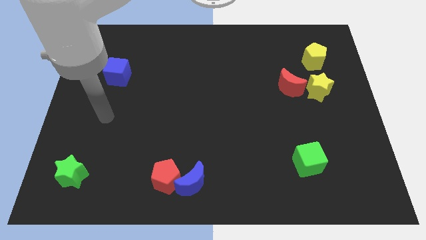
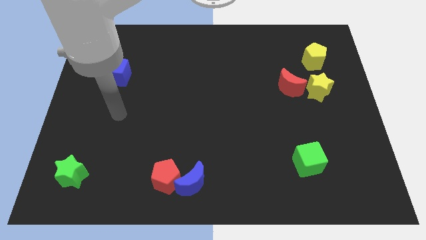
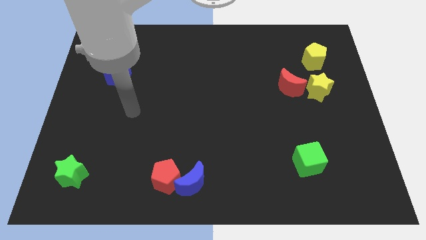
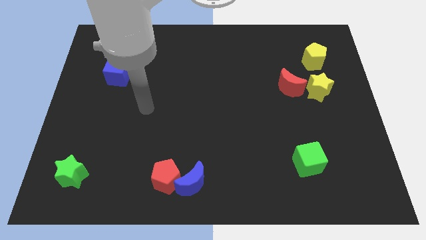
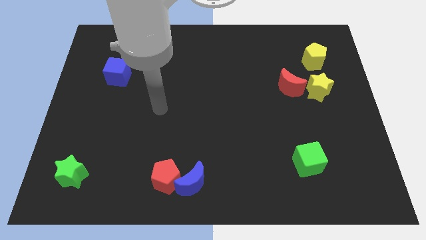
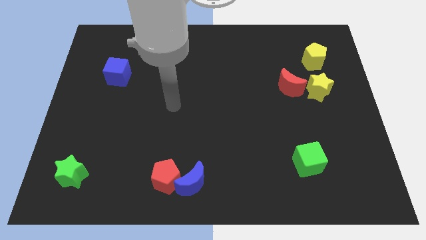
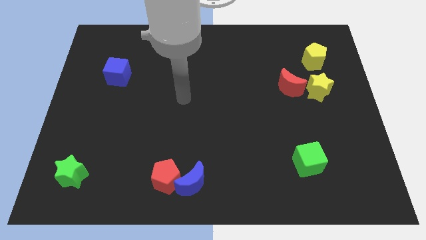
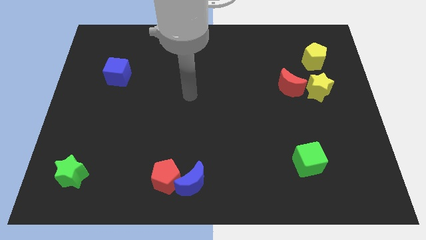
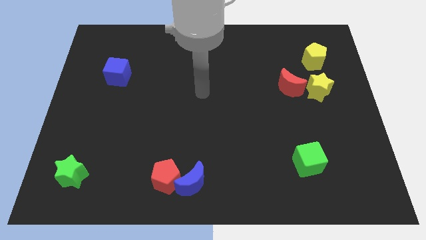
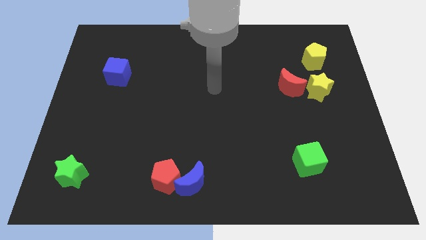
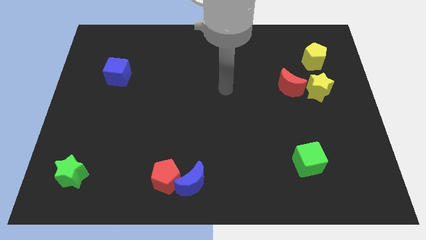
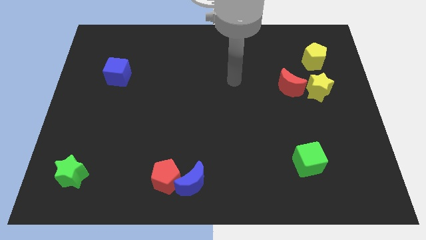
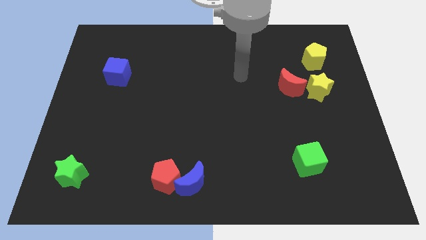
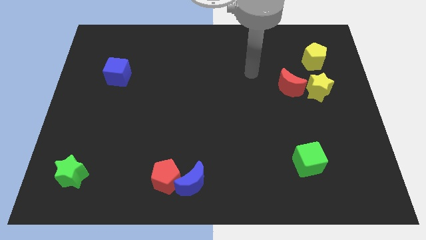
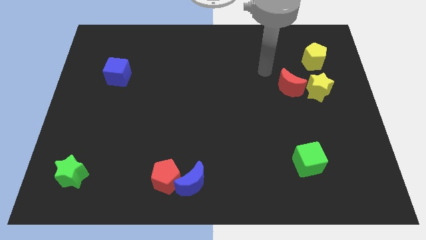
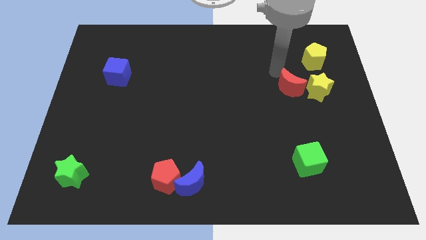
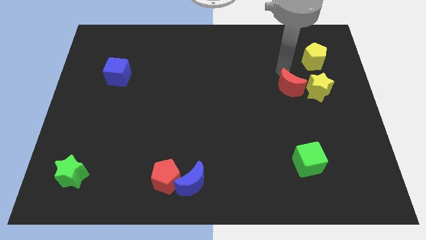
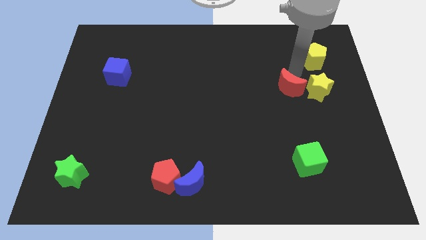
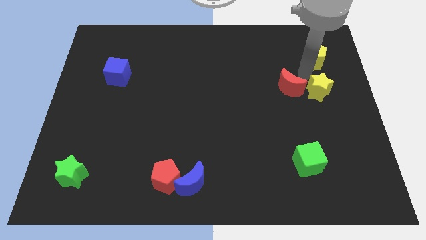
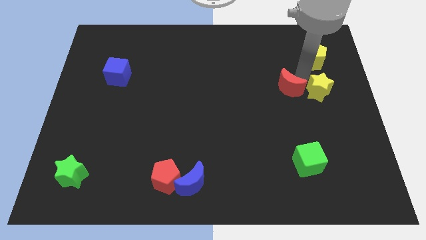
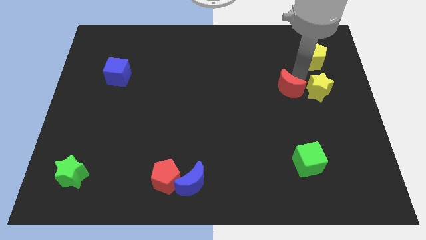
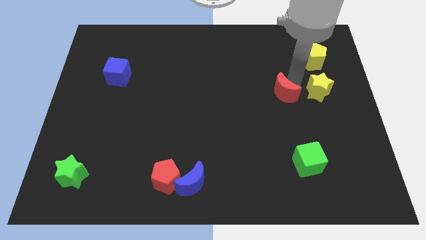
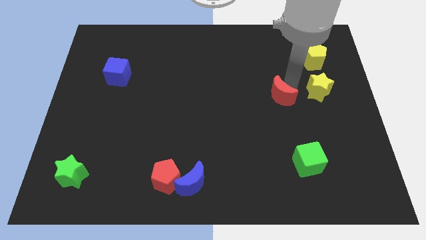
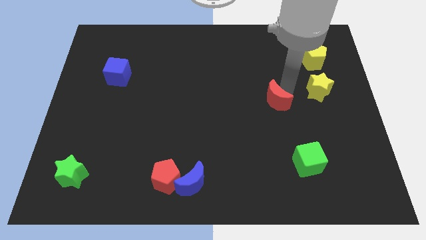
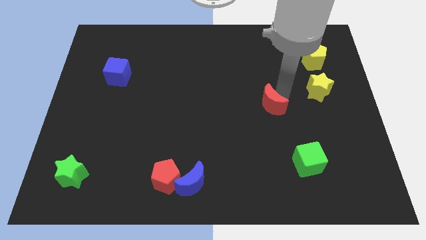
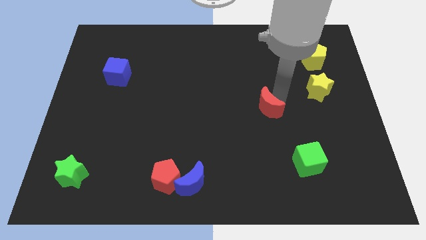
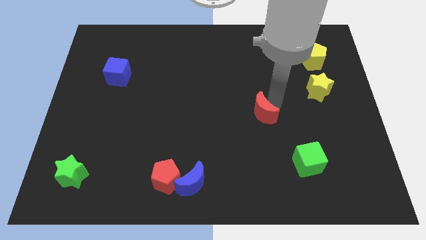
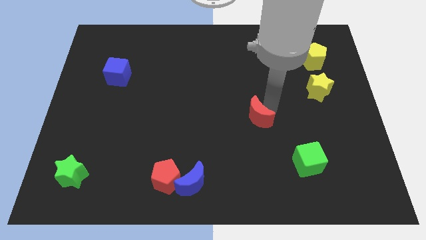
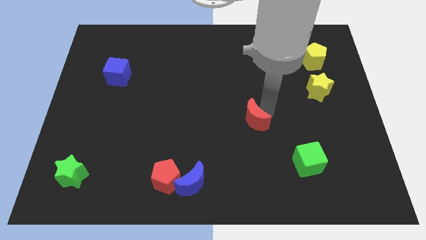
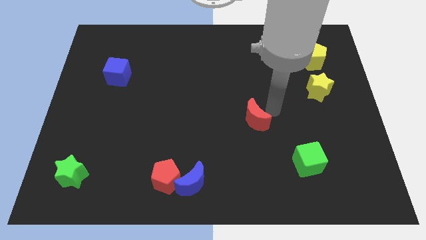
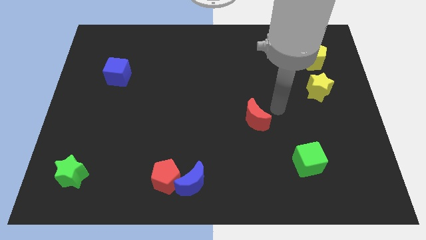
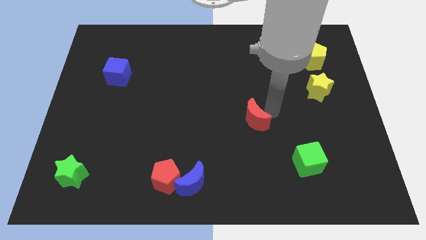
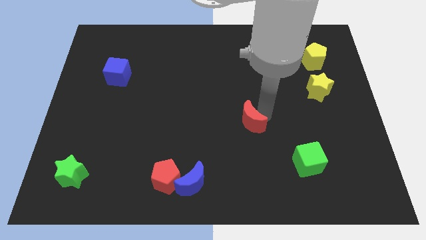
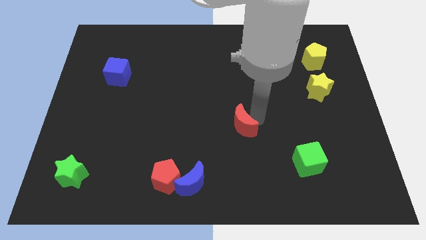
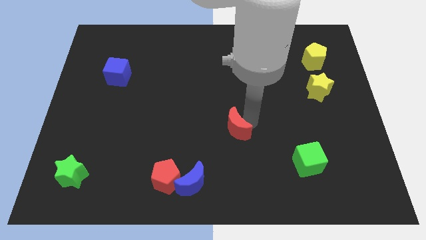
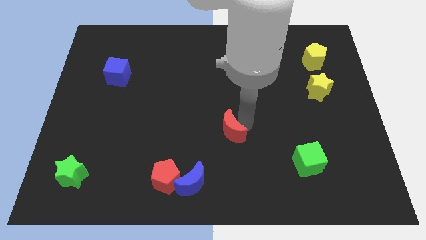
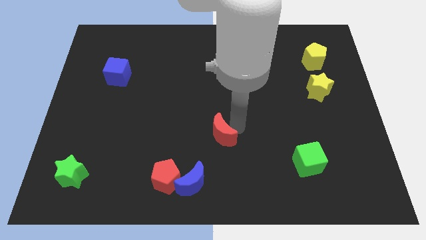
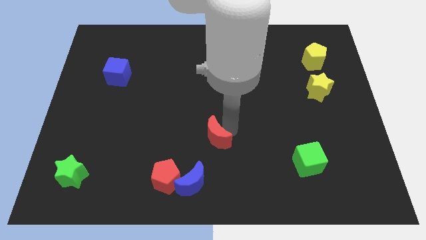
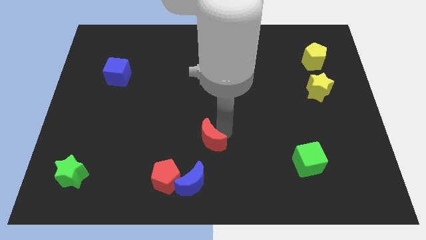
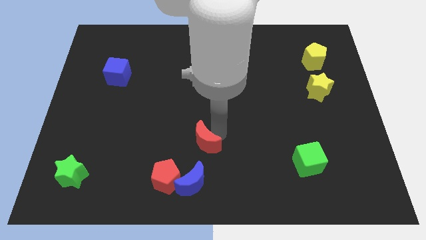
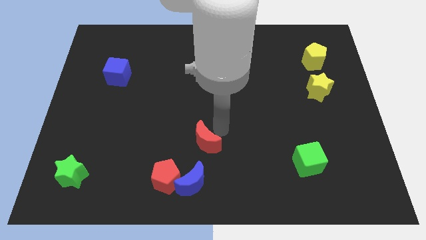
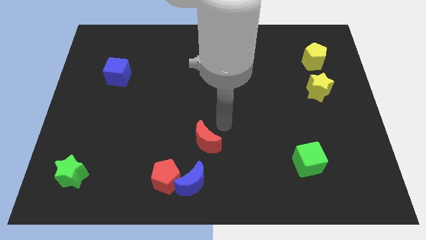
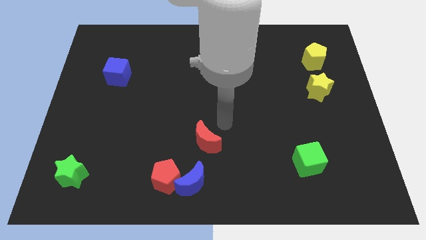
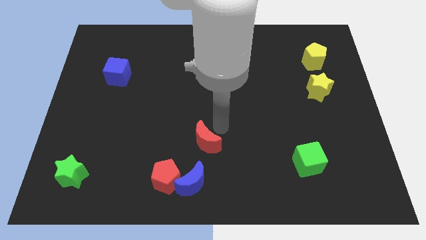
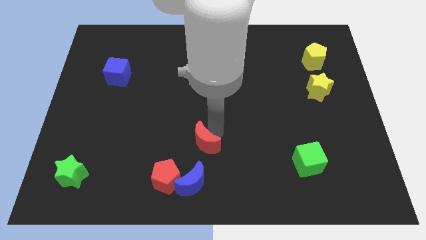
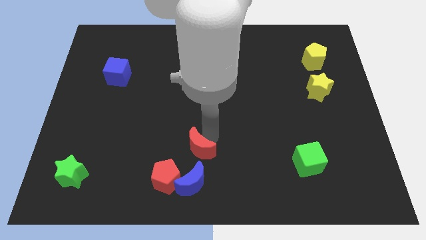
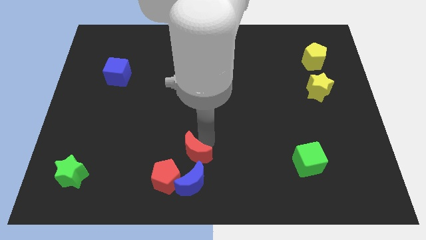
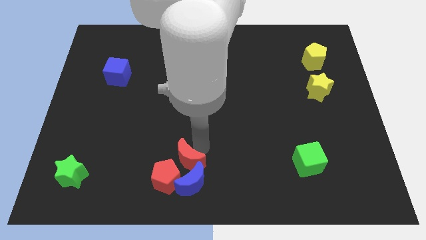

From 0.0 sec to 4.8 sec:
put the red moon to the red pentagon

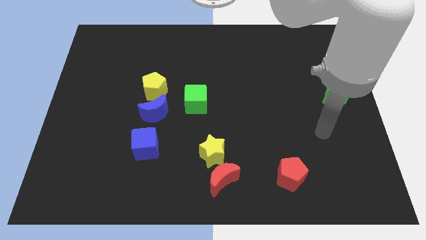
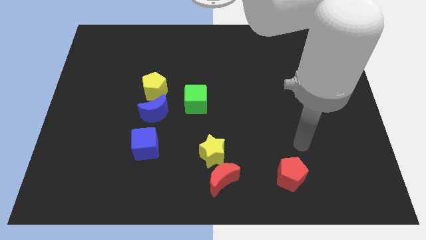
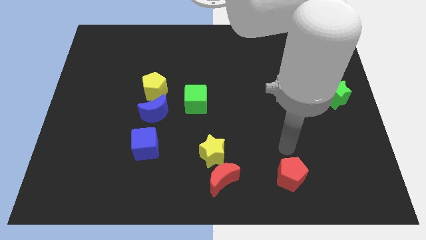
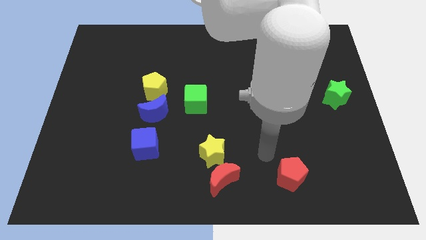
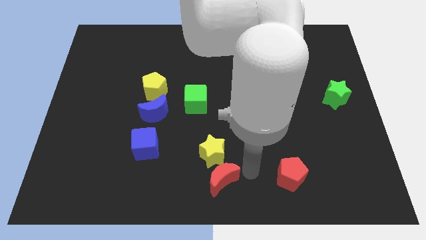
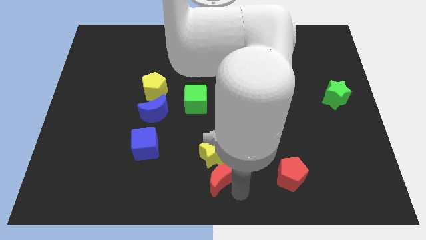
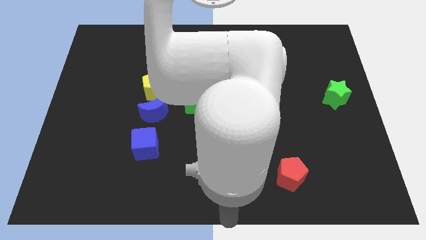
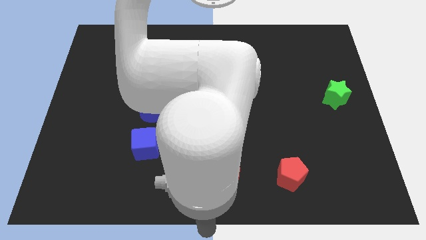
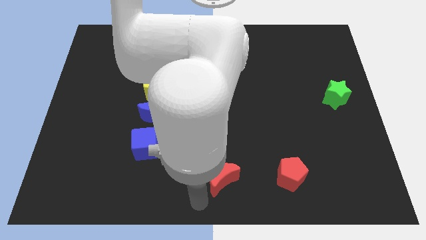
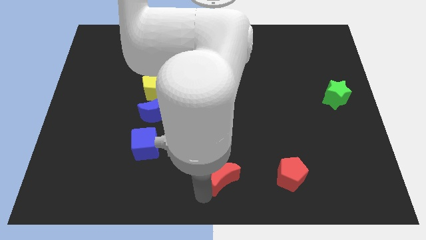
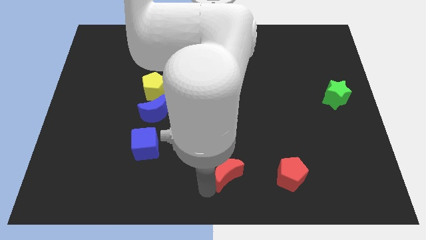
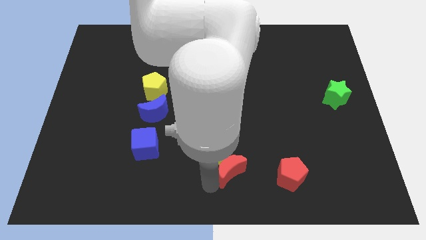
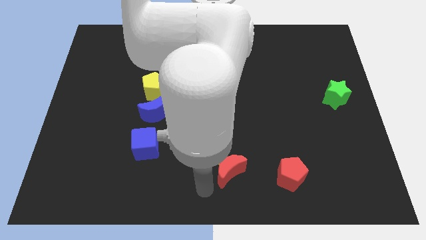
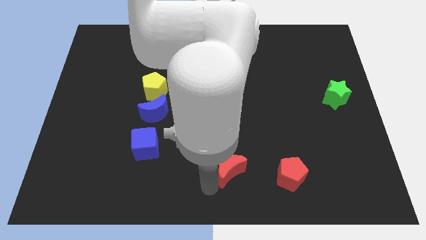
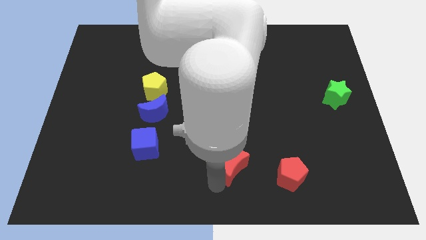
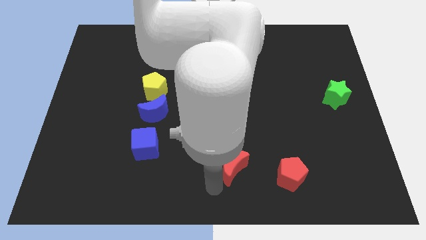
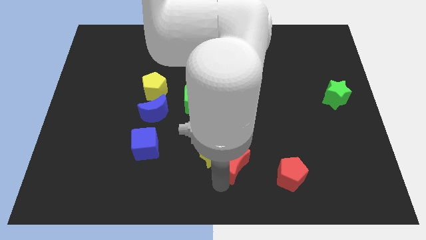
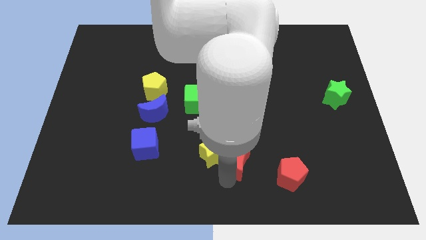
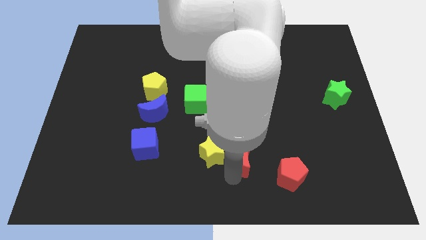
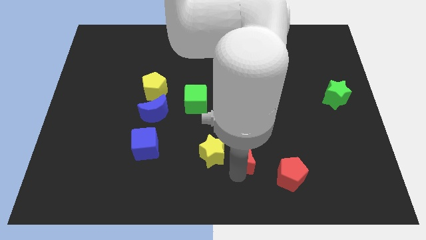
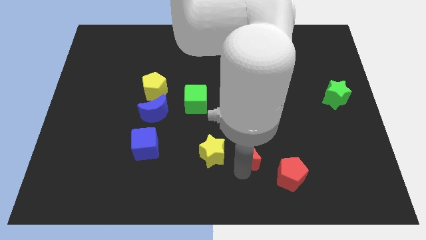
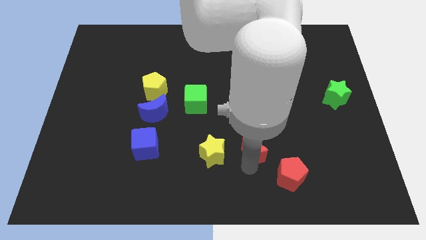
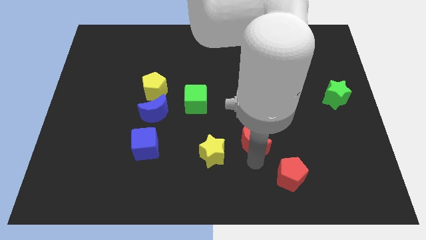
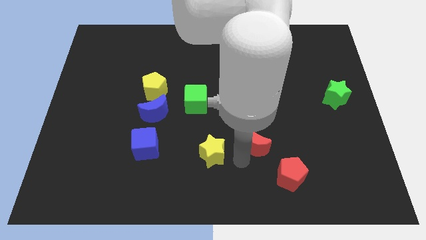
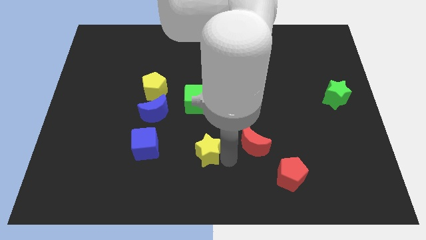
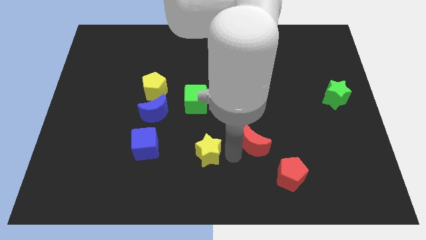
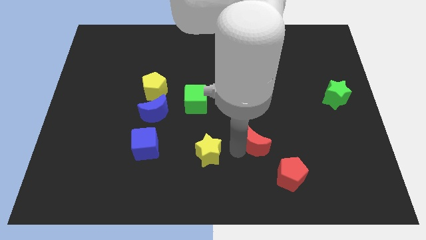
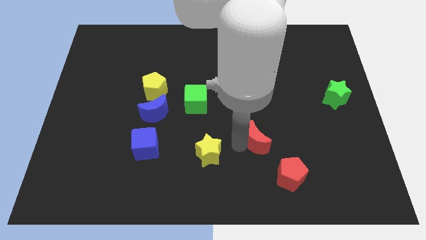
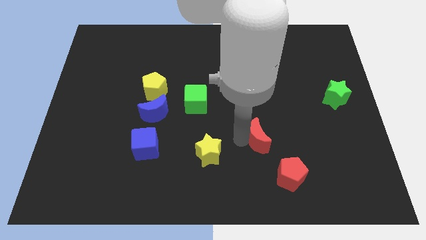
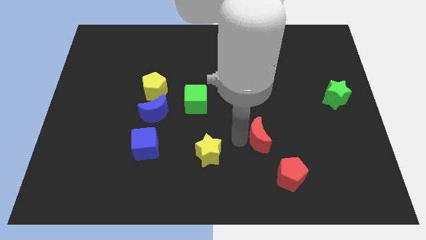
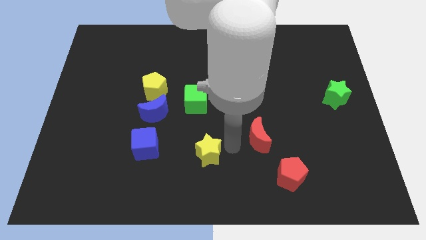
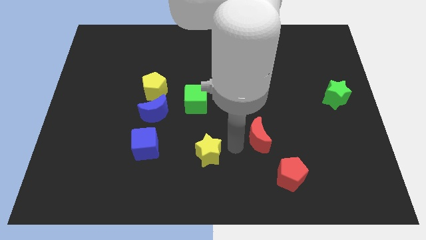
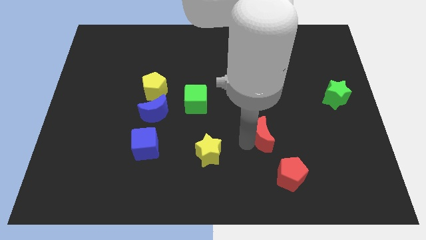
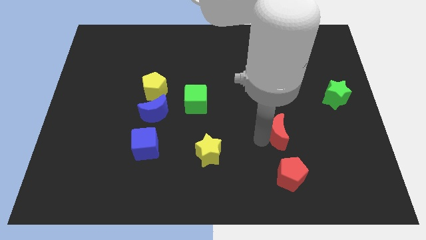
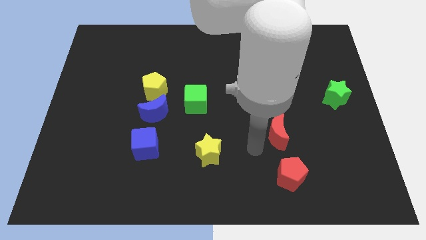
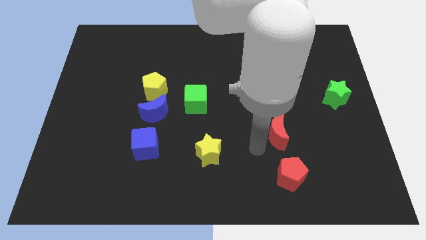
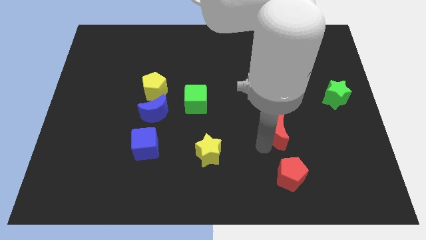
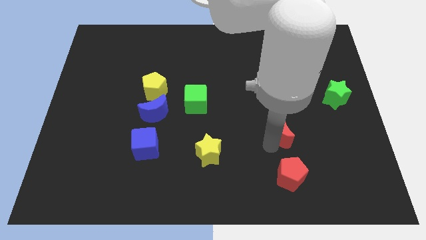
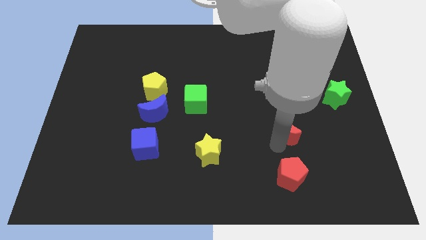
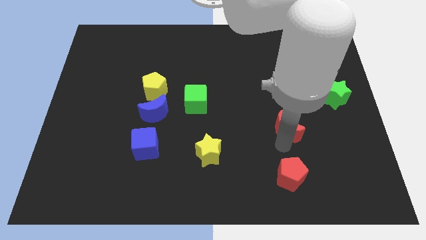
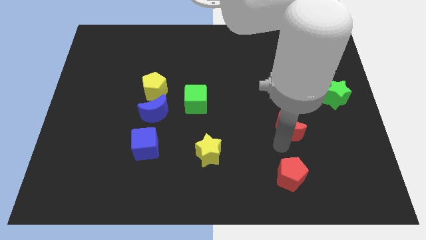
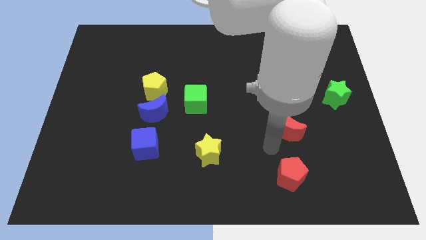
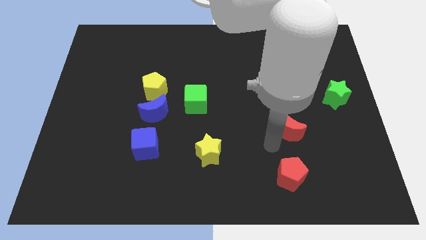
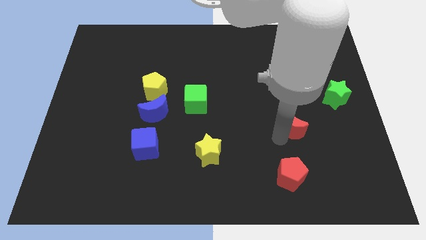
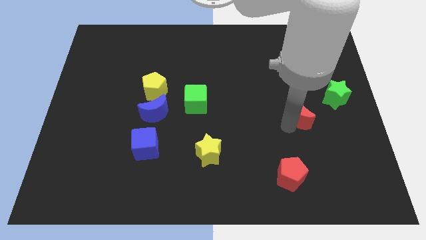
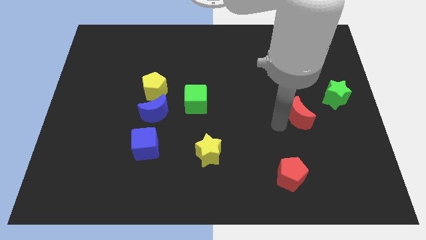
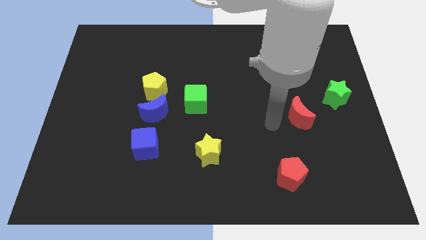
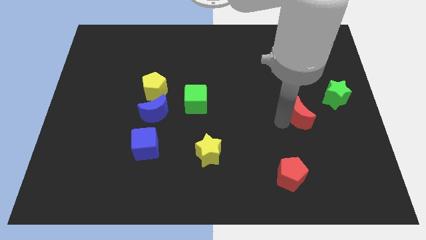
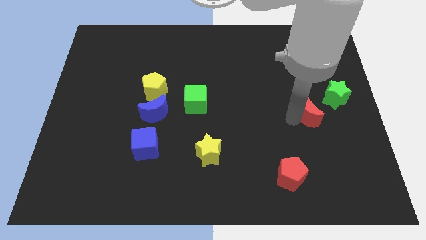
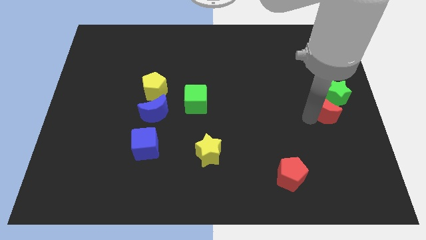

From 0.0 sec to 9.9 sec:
slide the red moon next to the green star
